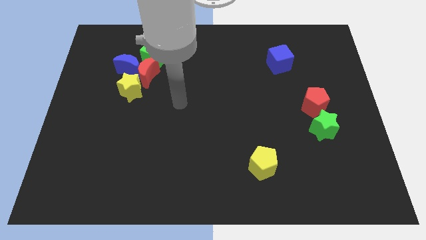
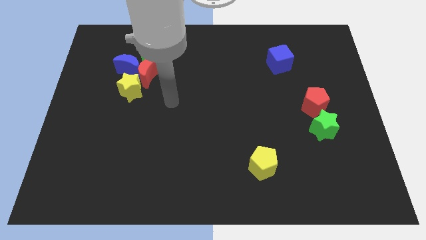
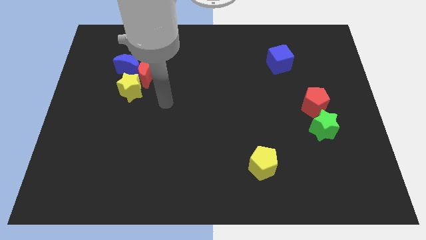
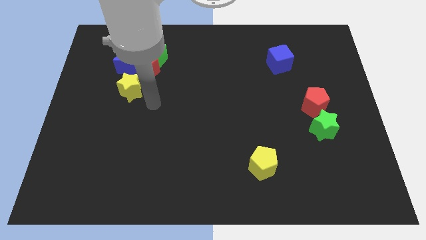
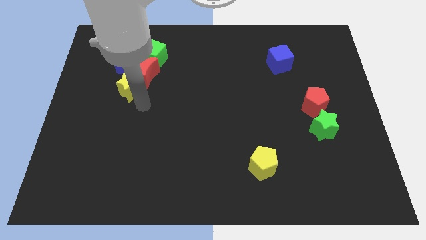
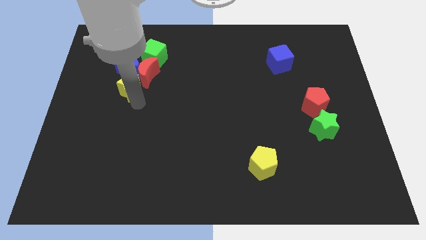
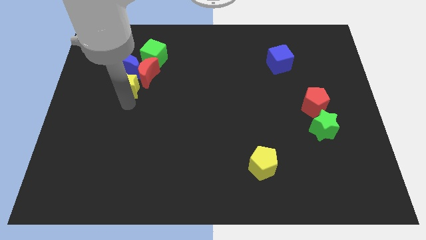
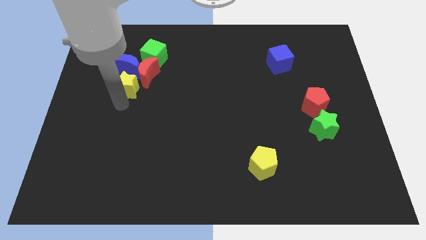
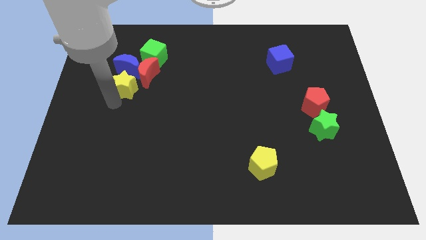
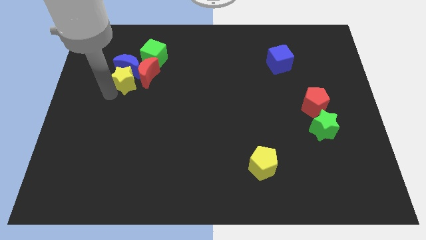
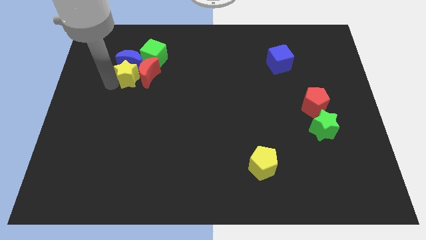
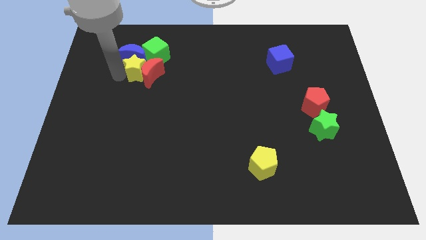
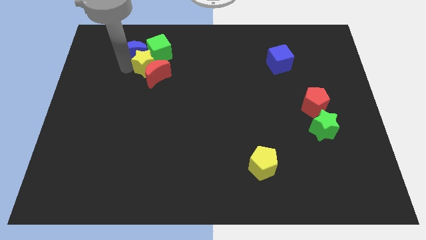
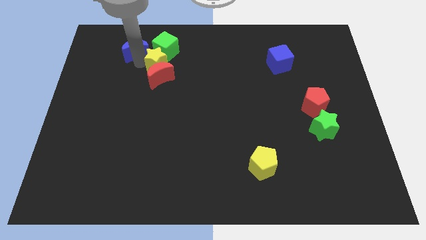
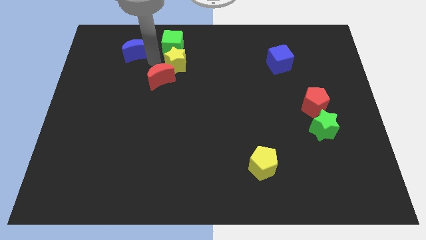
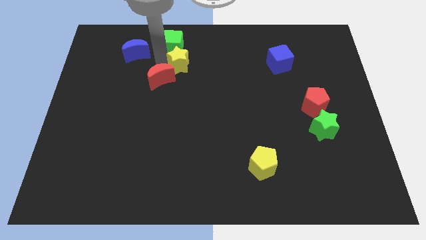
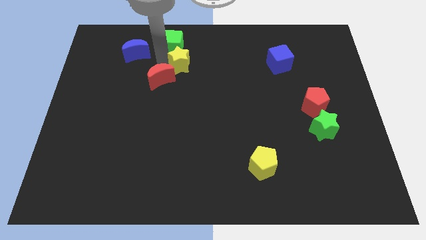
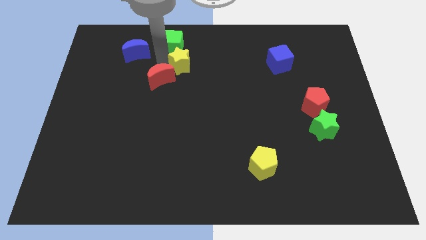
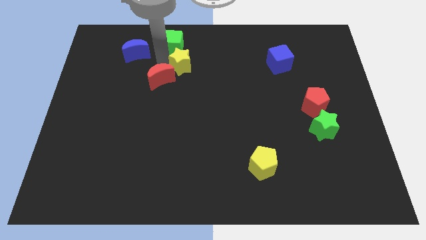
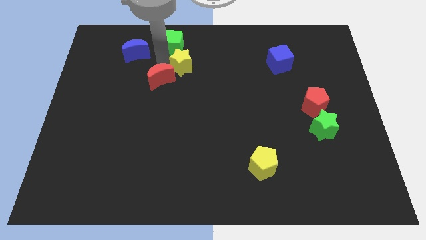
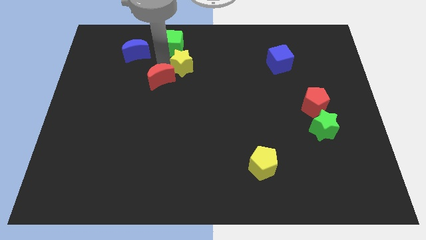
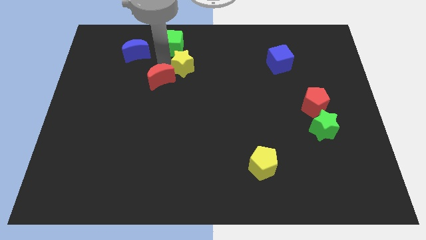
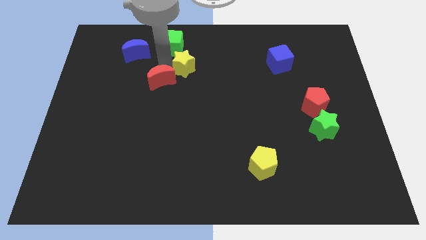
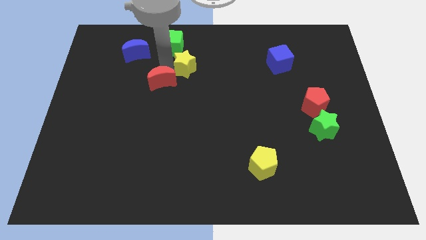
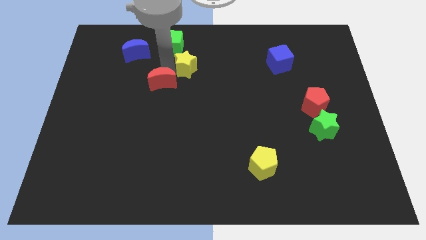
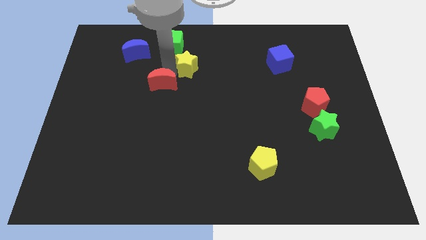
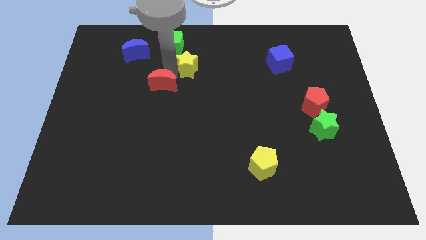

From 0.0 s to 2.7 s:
pull the red moon apart from the blue moon, yellow star, and green cube

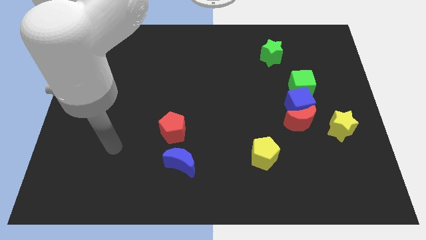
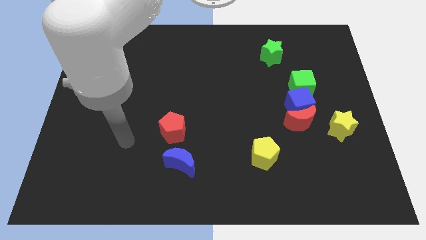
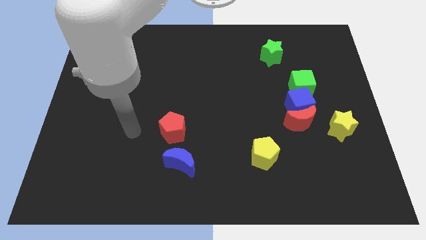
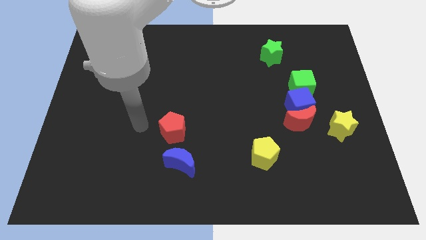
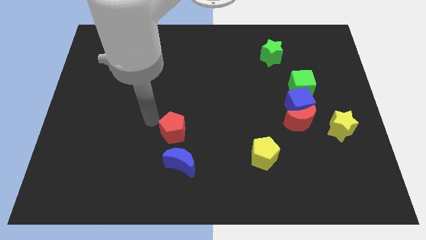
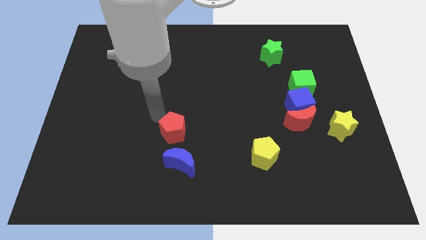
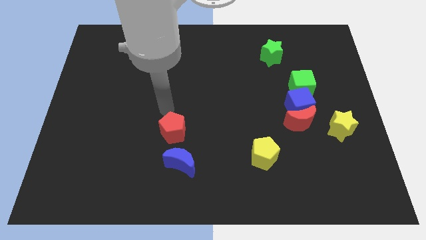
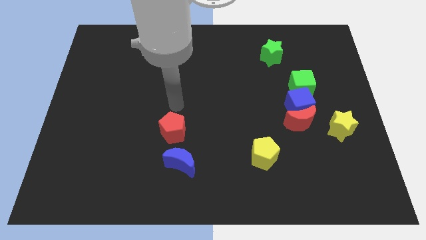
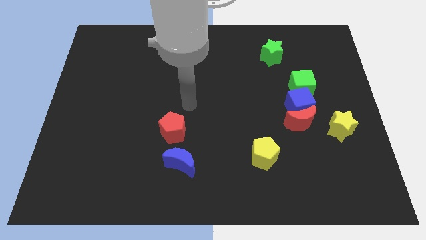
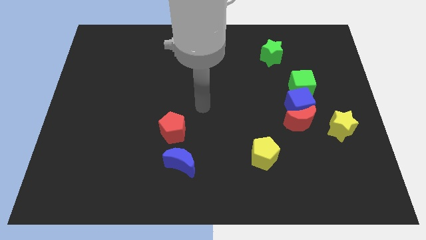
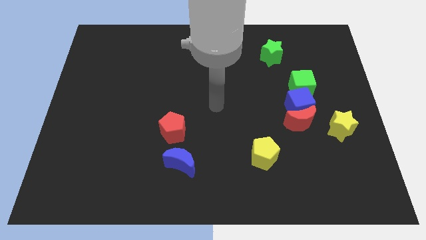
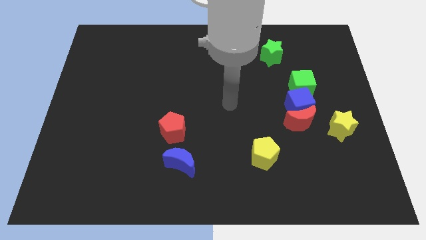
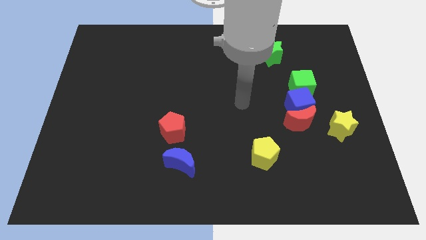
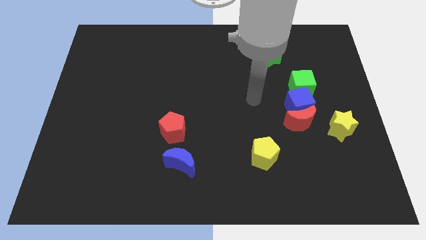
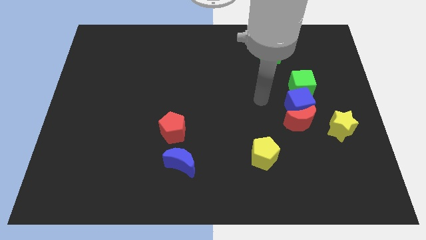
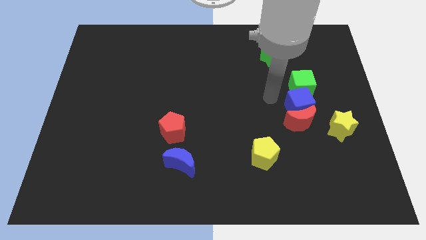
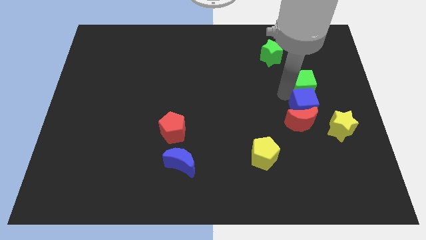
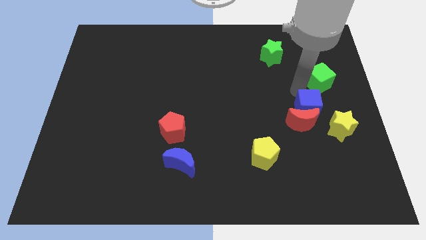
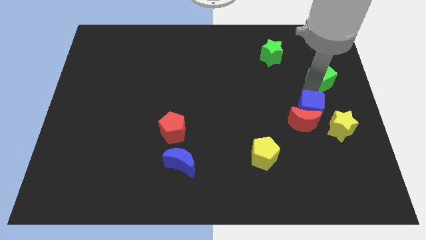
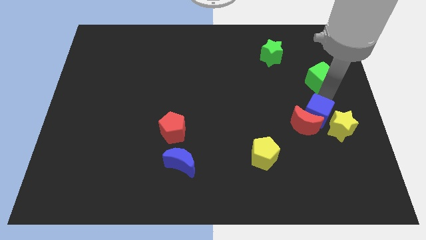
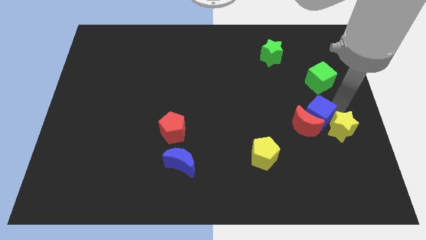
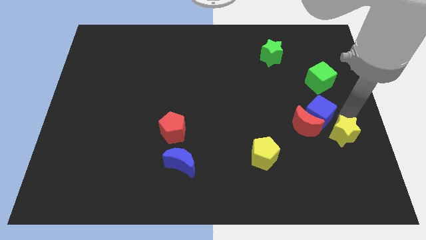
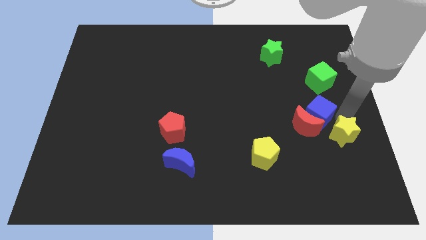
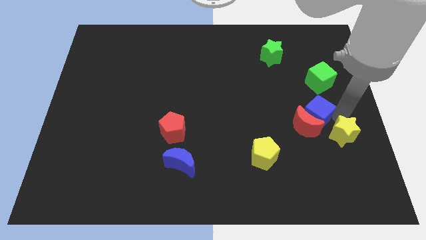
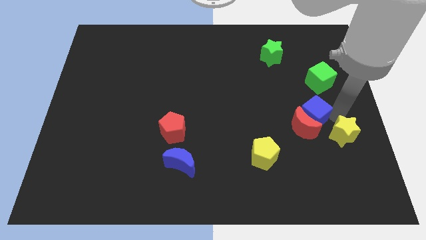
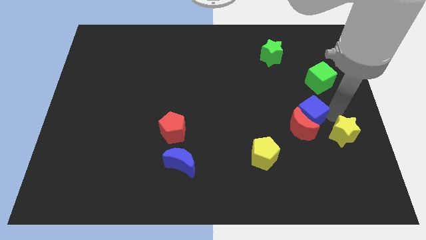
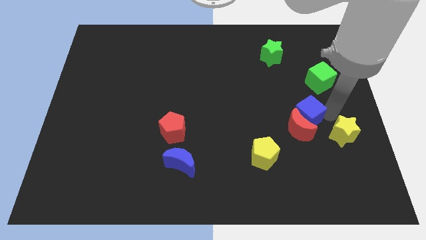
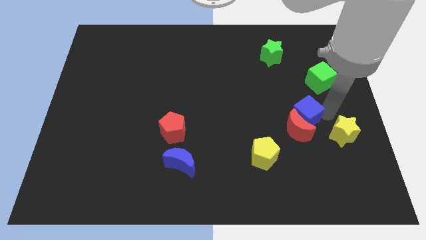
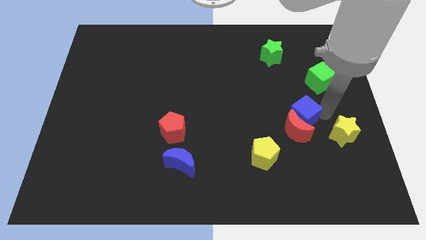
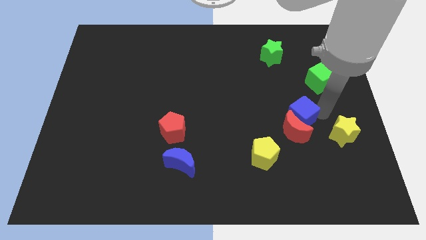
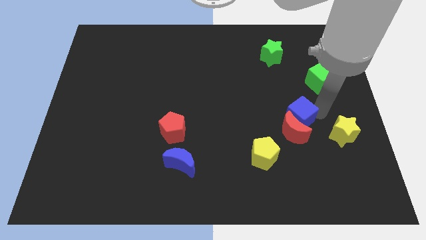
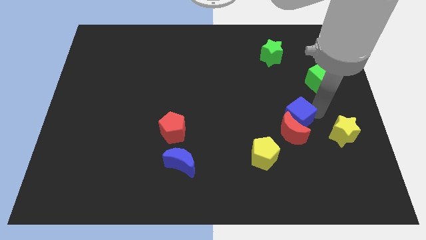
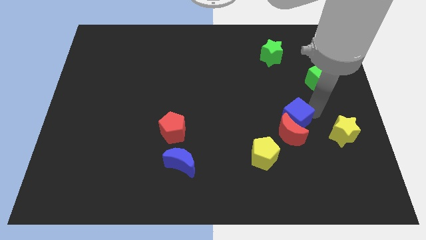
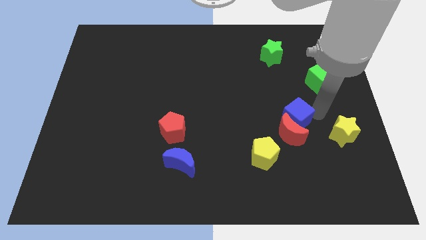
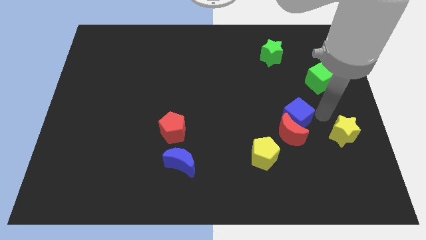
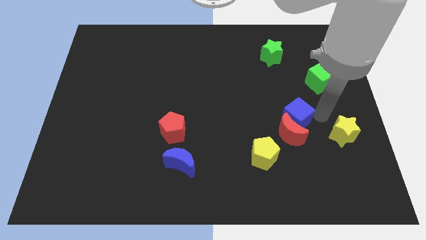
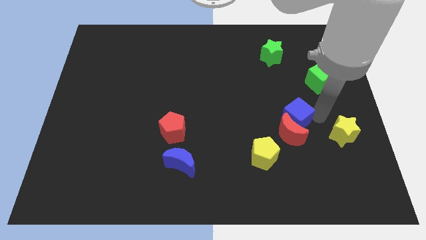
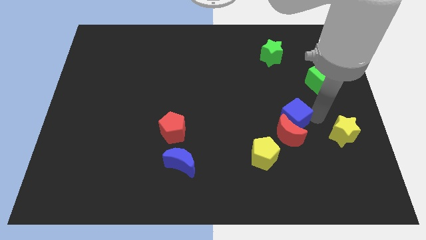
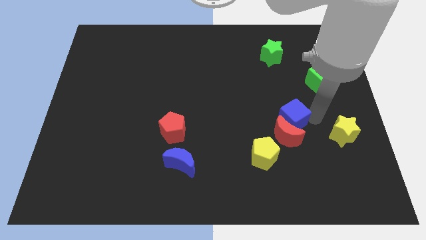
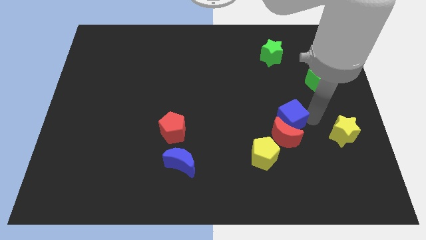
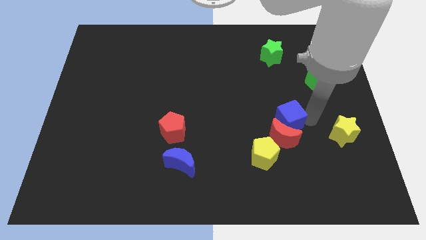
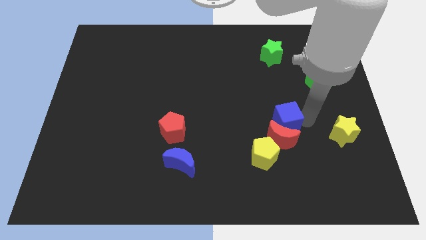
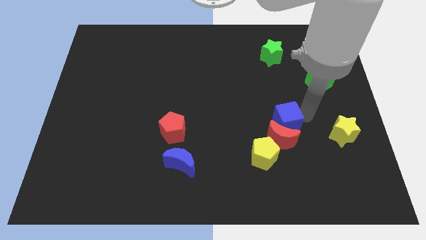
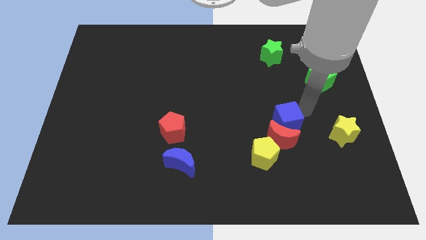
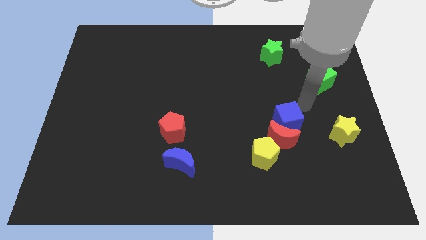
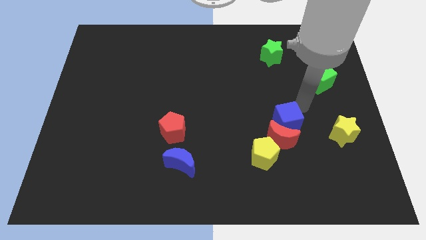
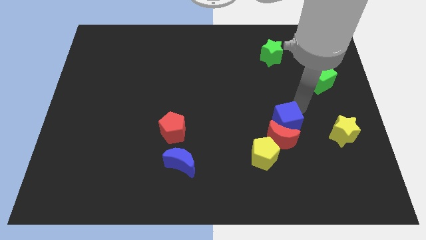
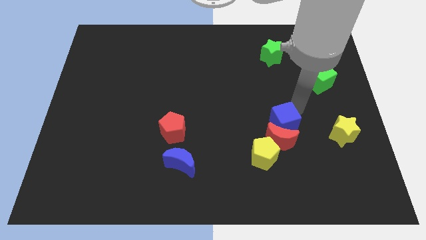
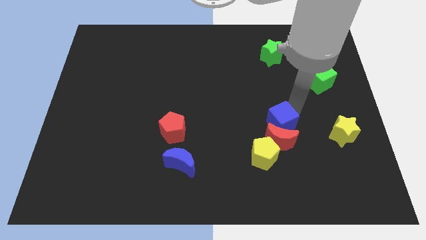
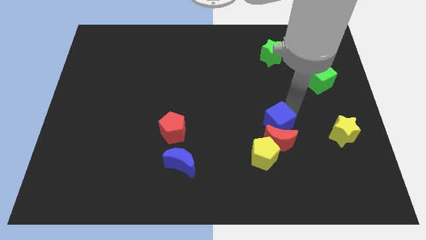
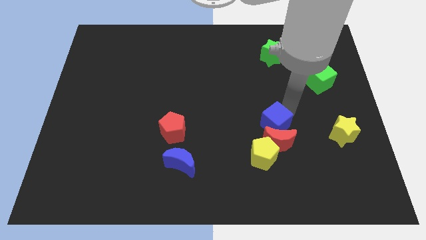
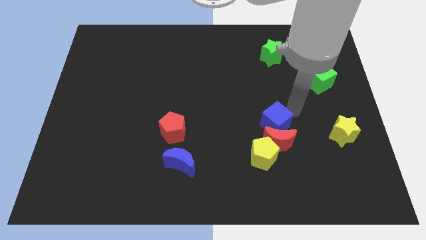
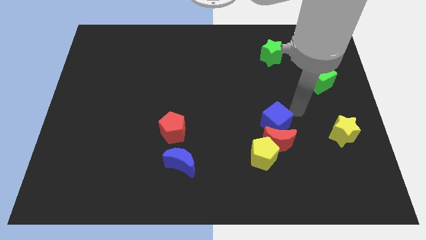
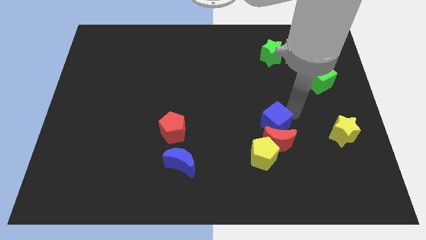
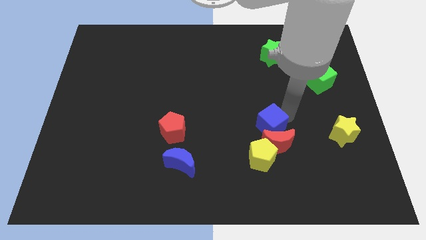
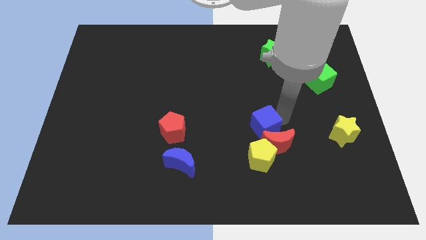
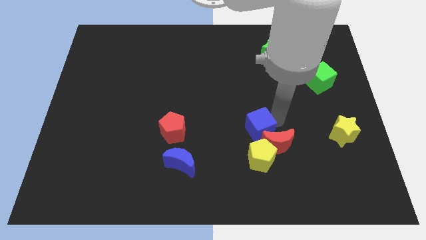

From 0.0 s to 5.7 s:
move the blue cube away from the red moon and green cube

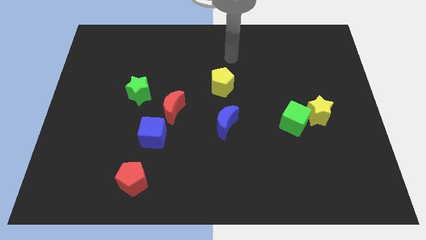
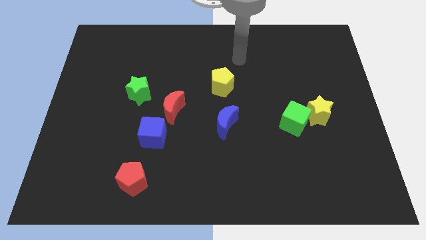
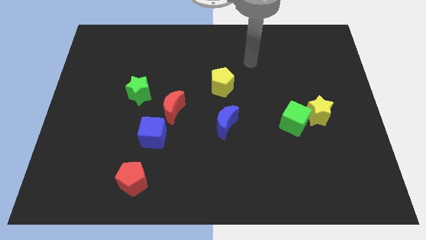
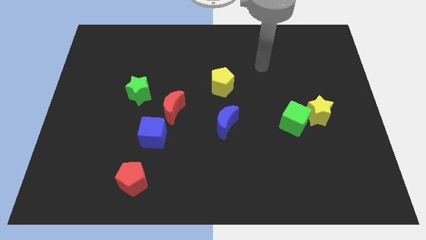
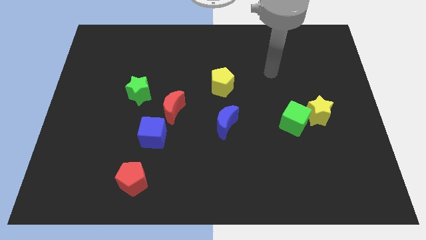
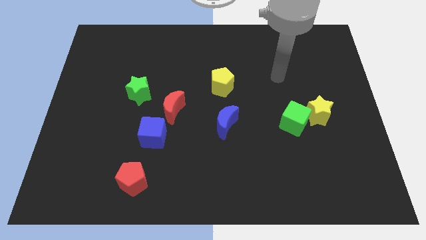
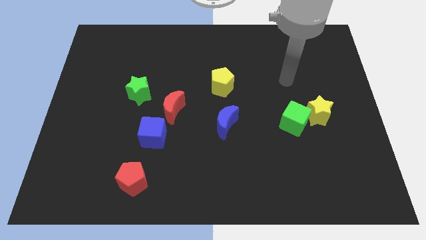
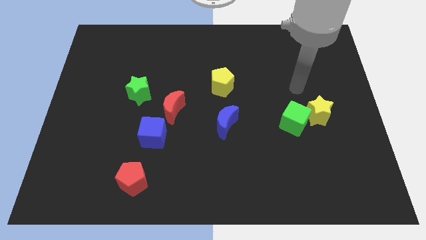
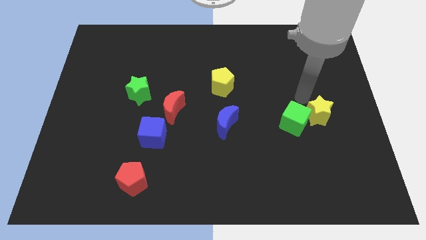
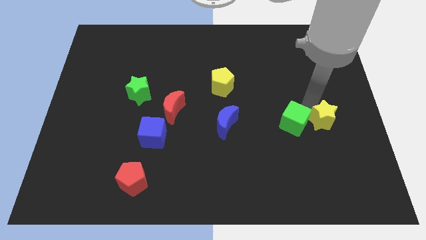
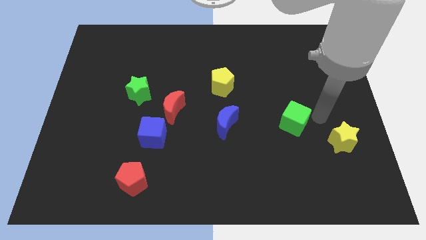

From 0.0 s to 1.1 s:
pull the green cube apart from the yellow star

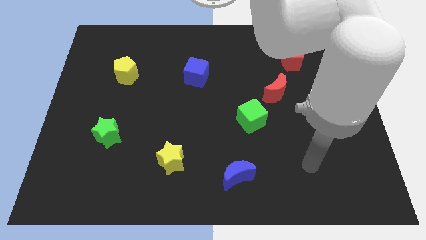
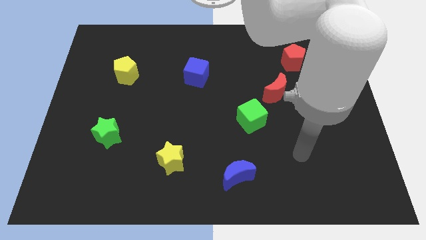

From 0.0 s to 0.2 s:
move the red moon away from the green cube
